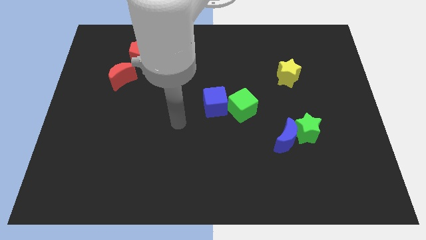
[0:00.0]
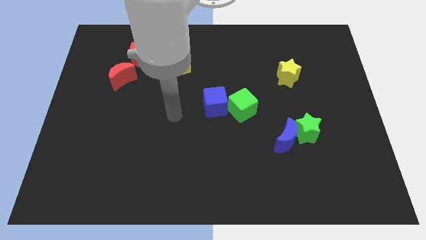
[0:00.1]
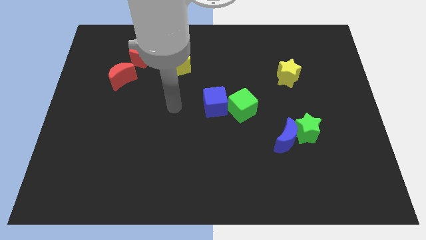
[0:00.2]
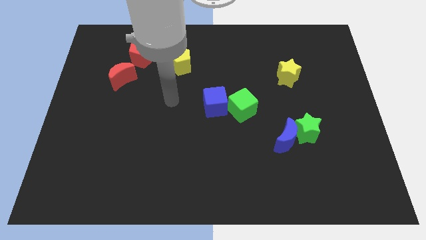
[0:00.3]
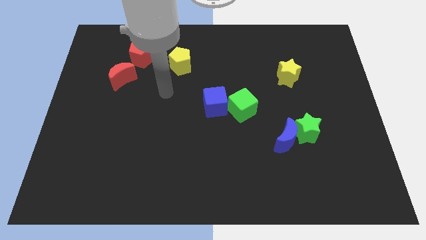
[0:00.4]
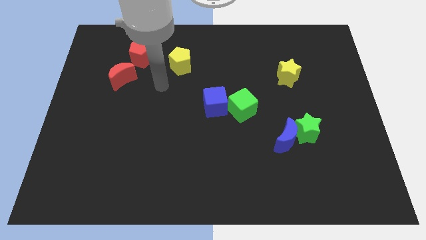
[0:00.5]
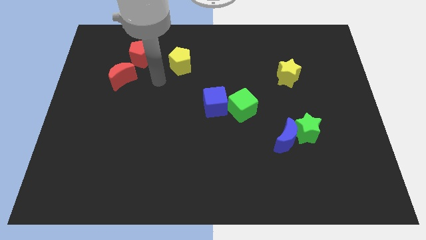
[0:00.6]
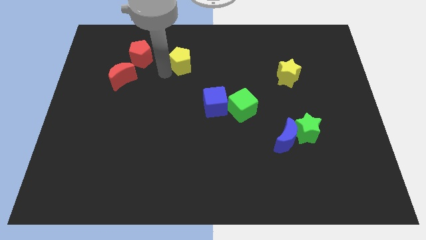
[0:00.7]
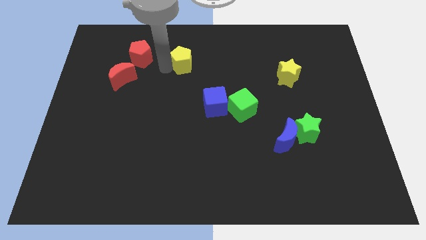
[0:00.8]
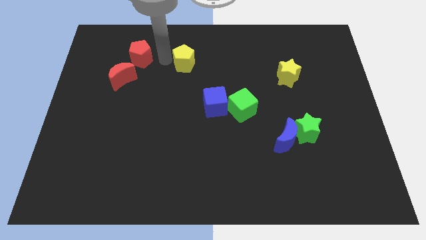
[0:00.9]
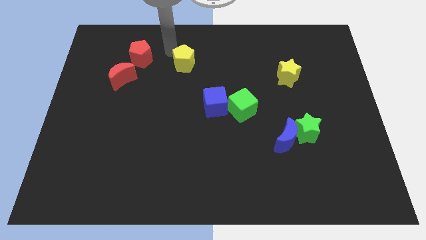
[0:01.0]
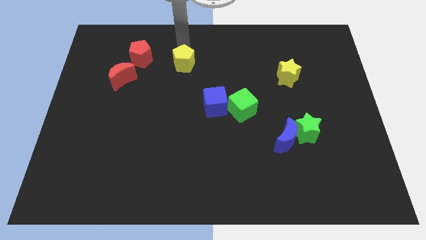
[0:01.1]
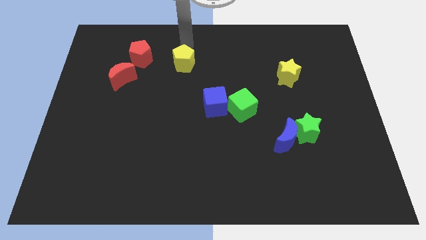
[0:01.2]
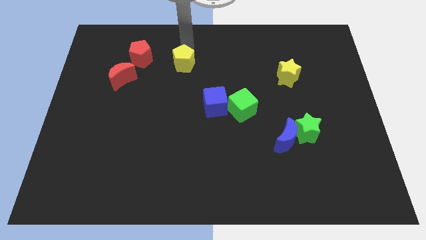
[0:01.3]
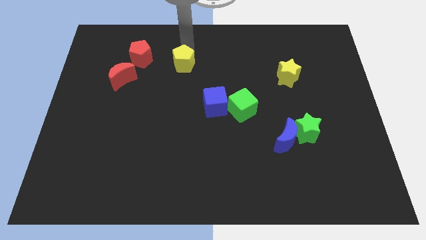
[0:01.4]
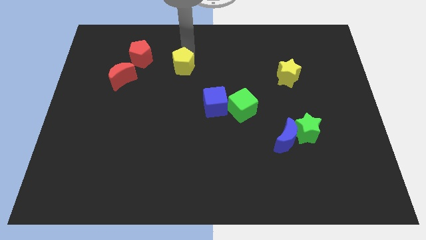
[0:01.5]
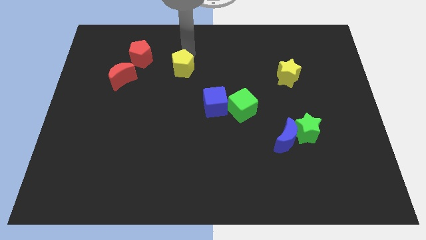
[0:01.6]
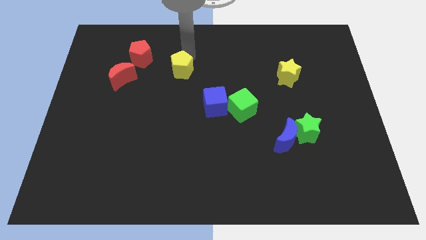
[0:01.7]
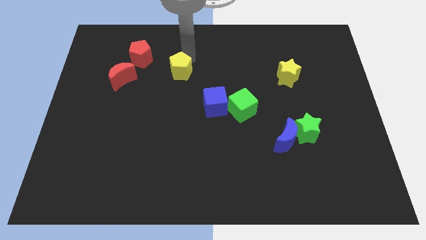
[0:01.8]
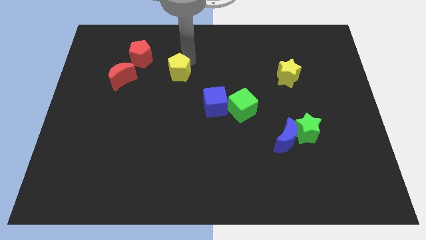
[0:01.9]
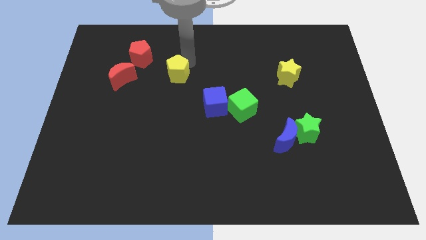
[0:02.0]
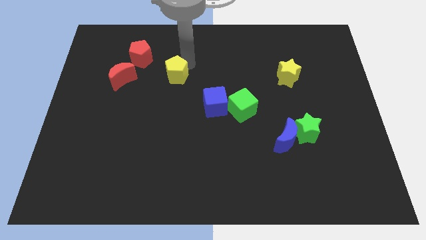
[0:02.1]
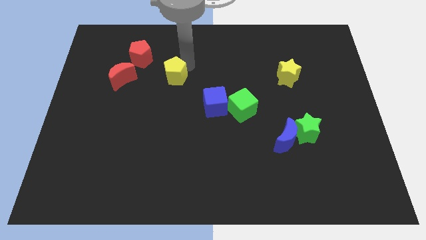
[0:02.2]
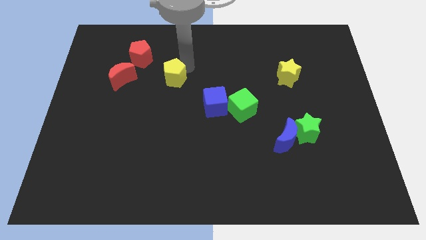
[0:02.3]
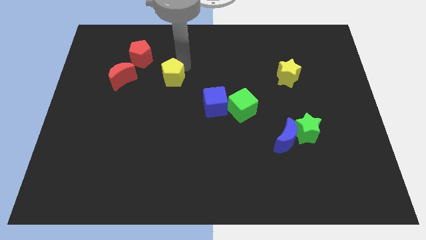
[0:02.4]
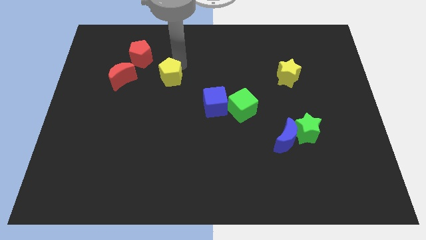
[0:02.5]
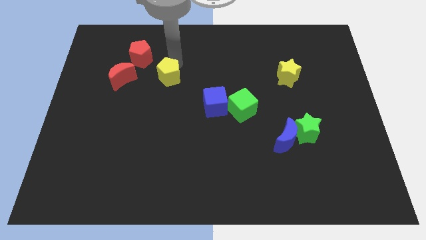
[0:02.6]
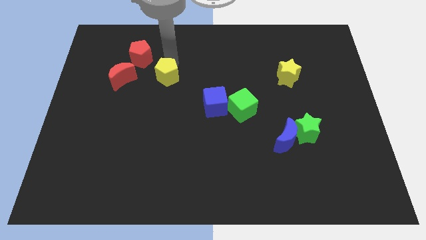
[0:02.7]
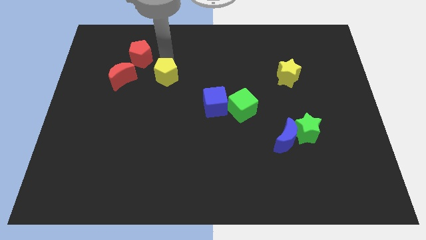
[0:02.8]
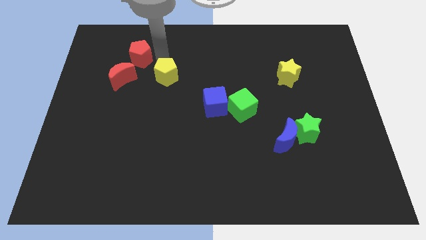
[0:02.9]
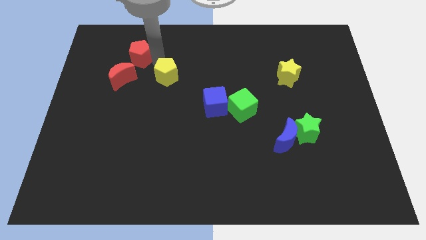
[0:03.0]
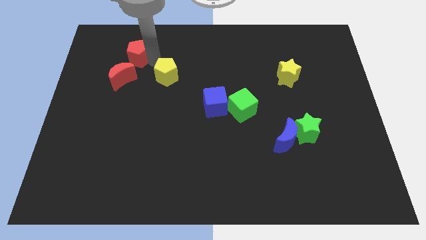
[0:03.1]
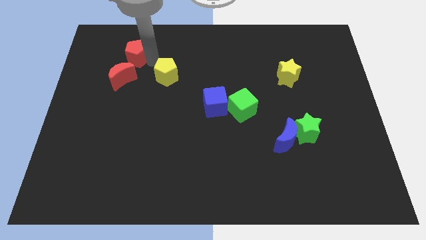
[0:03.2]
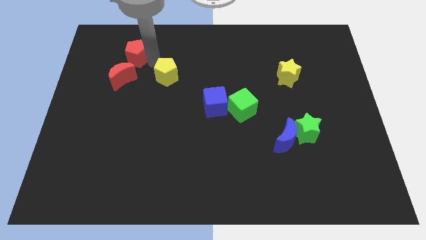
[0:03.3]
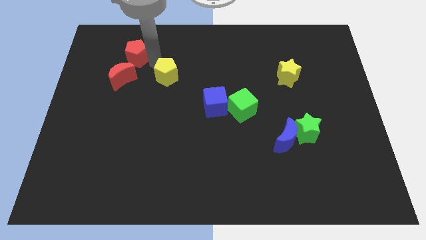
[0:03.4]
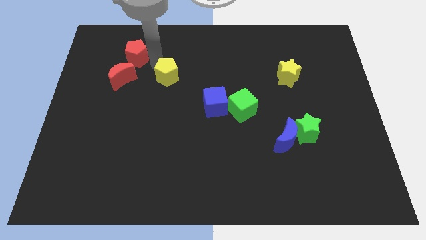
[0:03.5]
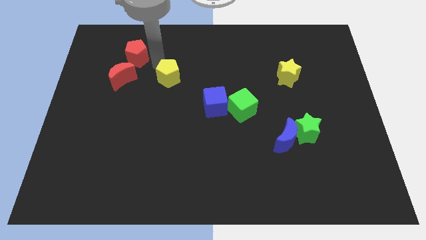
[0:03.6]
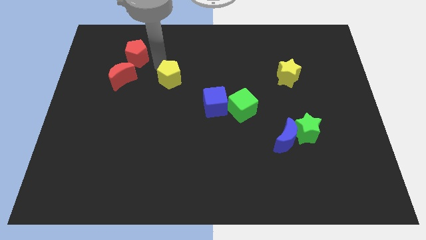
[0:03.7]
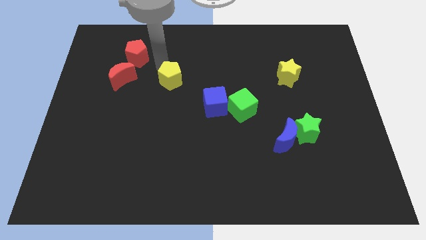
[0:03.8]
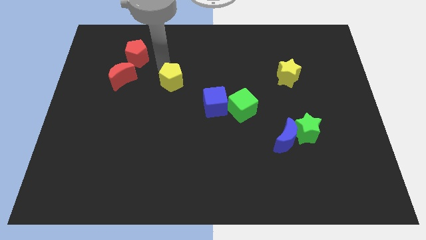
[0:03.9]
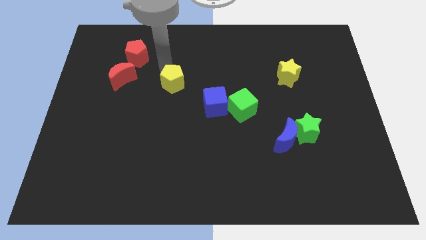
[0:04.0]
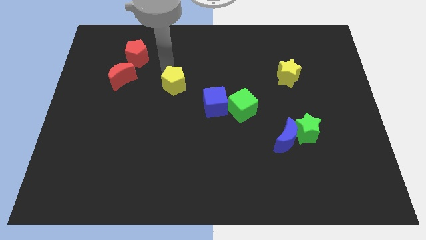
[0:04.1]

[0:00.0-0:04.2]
slightly slide the yellow pentagon downwards

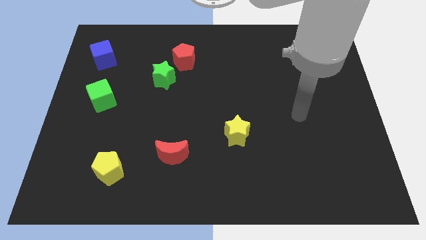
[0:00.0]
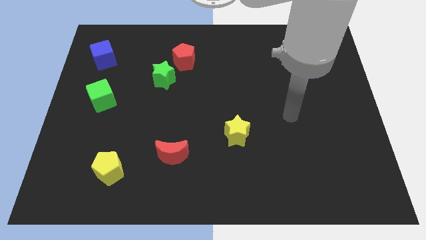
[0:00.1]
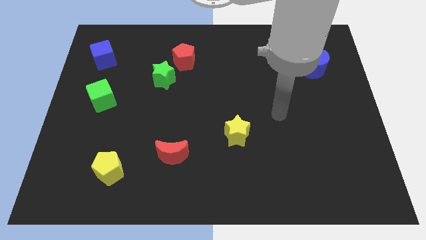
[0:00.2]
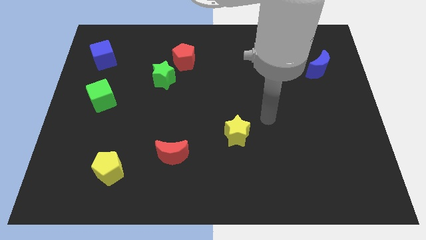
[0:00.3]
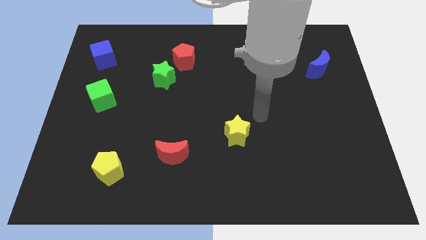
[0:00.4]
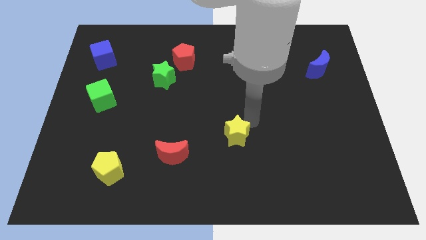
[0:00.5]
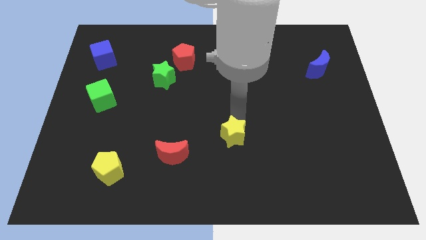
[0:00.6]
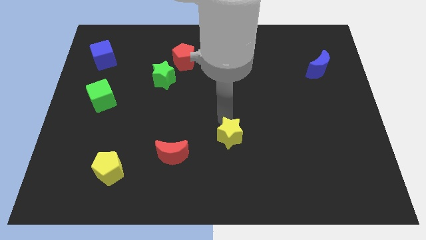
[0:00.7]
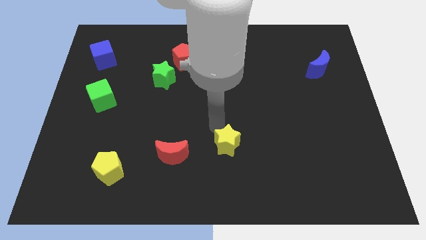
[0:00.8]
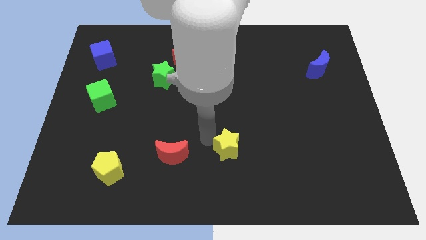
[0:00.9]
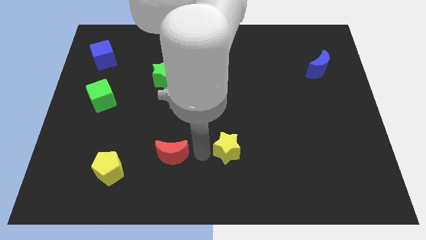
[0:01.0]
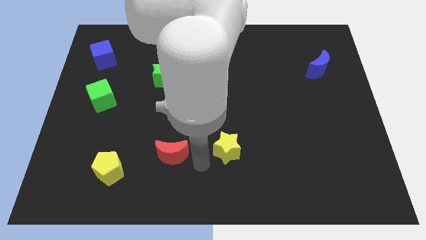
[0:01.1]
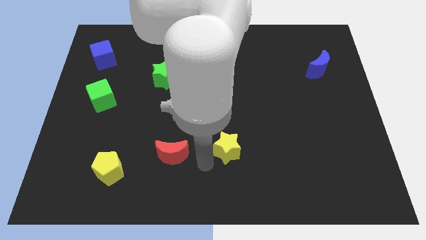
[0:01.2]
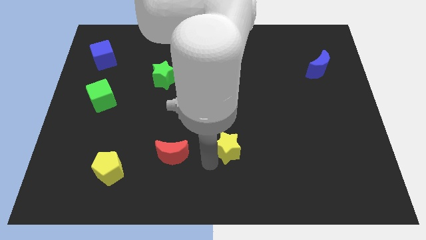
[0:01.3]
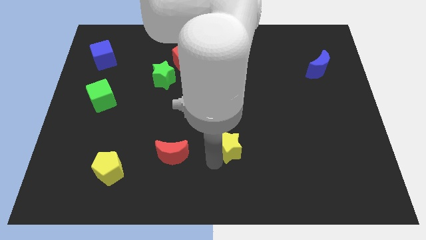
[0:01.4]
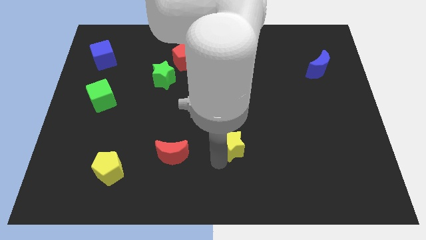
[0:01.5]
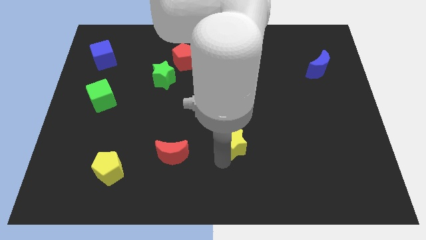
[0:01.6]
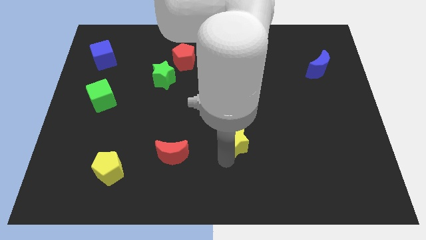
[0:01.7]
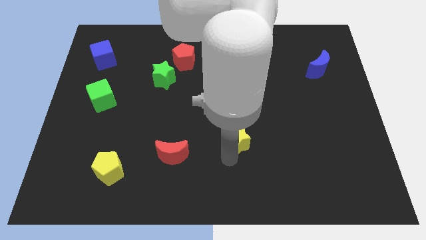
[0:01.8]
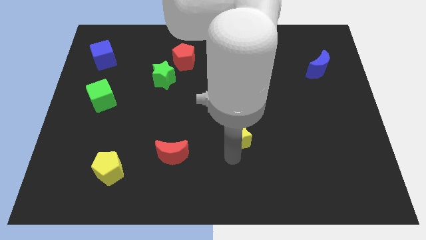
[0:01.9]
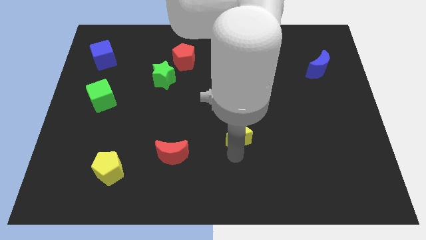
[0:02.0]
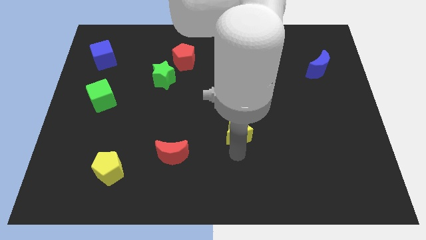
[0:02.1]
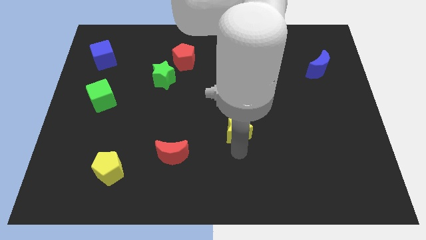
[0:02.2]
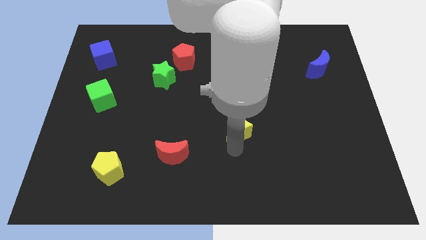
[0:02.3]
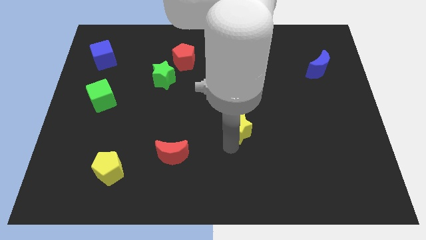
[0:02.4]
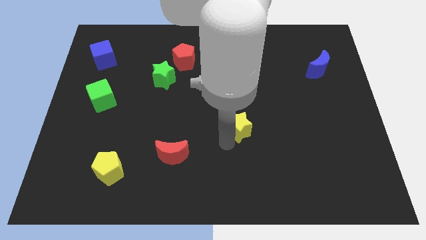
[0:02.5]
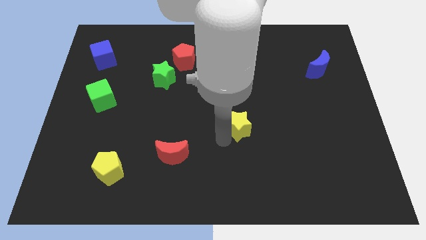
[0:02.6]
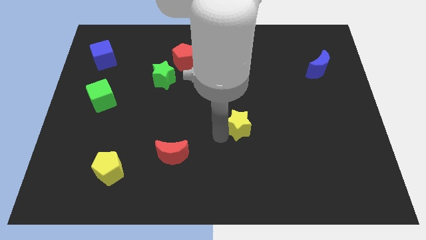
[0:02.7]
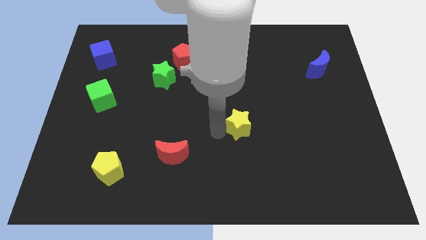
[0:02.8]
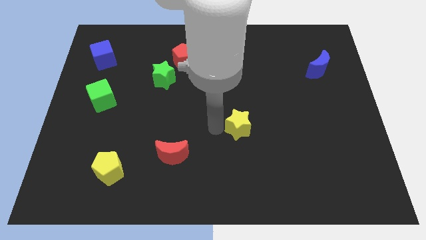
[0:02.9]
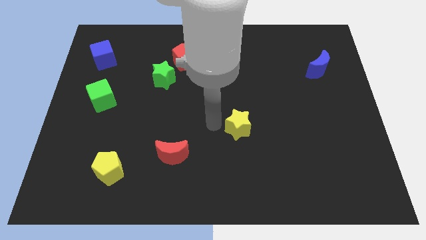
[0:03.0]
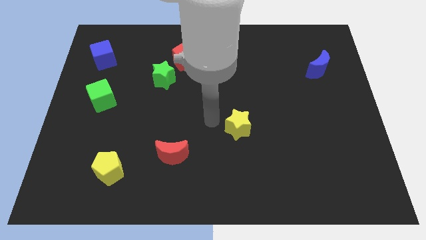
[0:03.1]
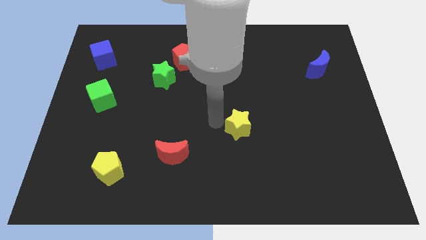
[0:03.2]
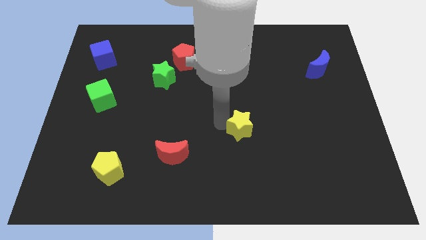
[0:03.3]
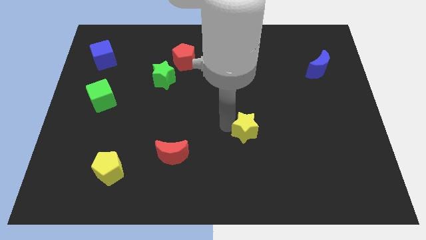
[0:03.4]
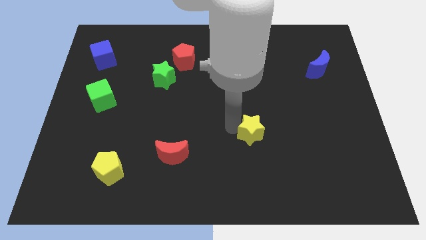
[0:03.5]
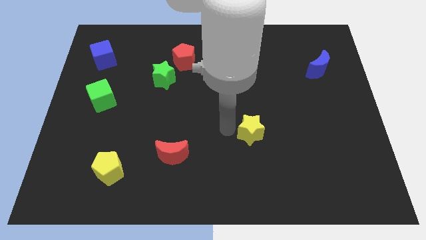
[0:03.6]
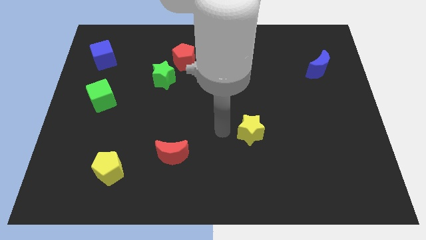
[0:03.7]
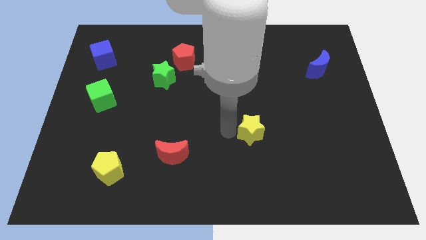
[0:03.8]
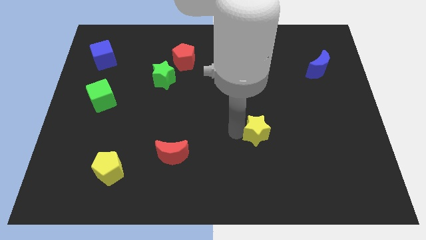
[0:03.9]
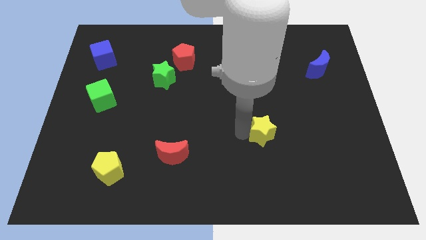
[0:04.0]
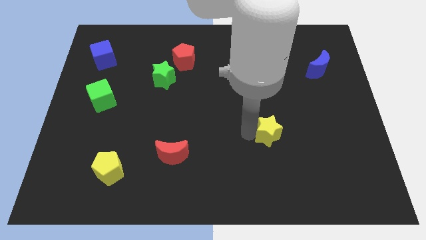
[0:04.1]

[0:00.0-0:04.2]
push the yellow star to the right a bit

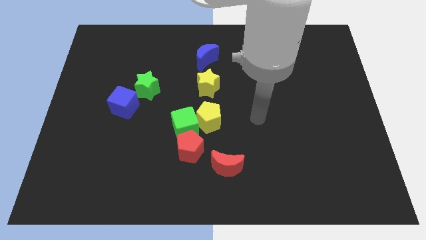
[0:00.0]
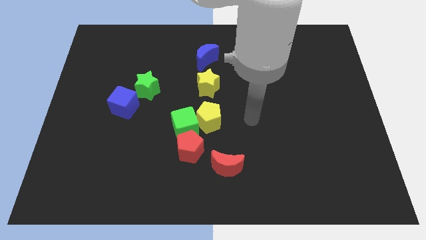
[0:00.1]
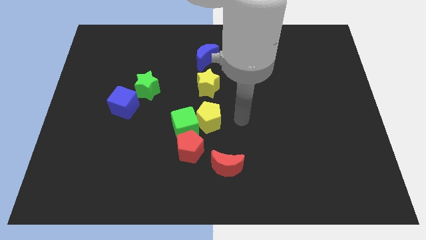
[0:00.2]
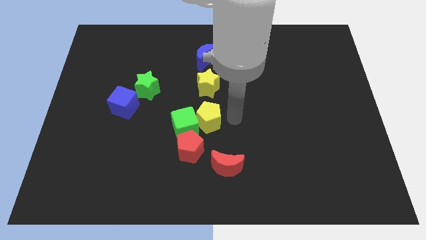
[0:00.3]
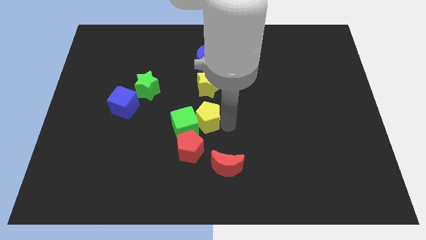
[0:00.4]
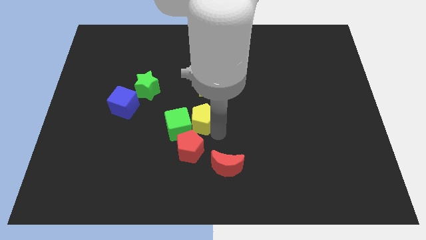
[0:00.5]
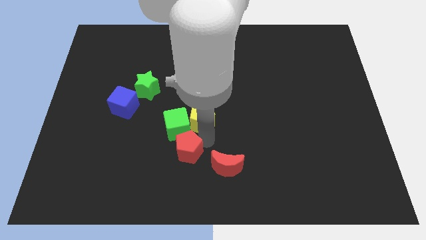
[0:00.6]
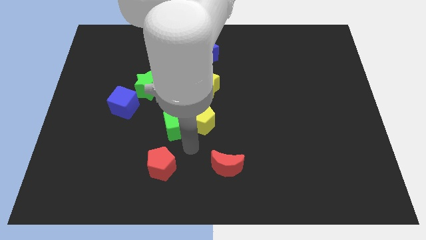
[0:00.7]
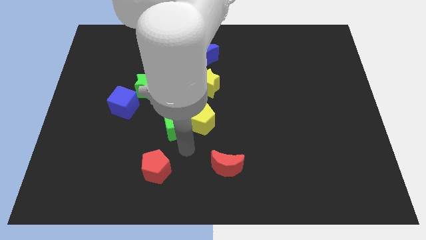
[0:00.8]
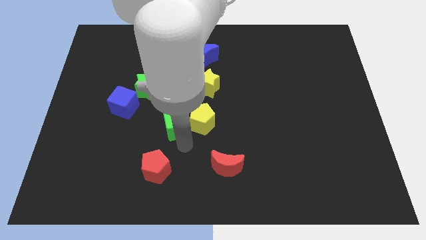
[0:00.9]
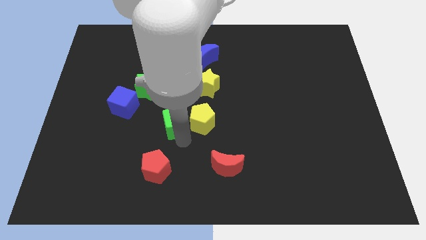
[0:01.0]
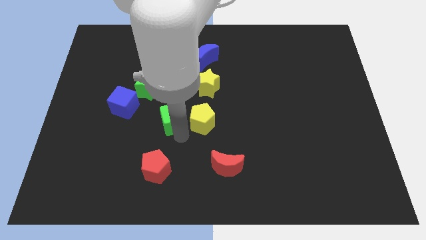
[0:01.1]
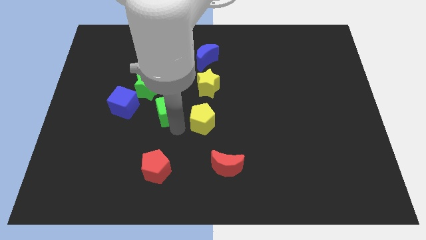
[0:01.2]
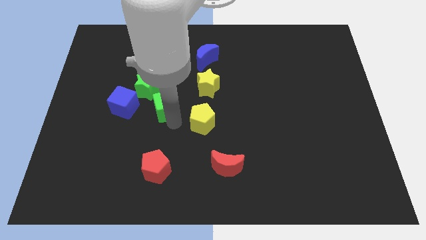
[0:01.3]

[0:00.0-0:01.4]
slightly slide the green cube diagonally up and to the left
